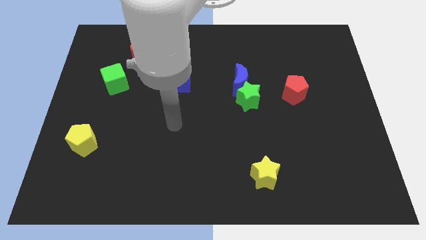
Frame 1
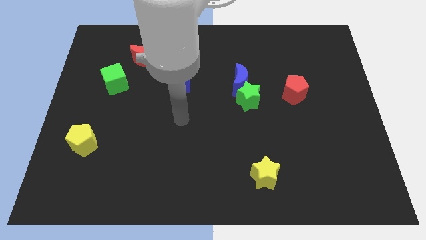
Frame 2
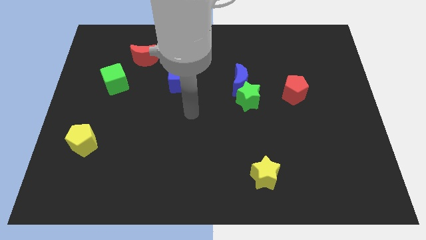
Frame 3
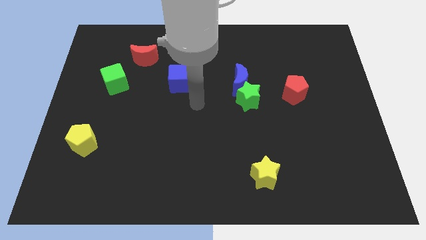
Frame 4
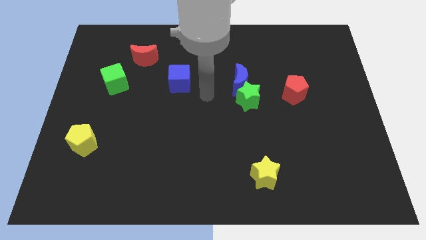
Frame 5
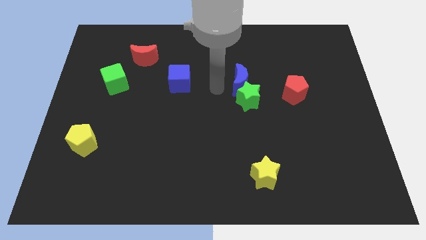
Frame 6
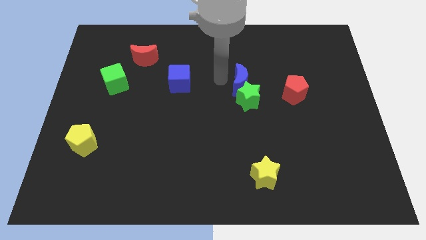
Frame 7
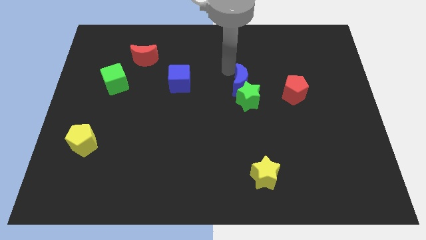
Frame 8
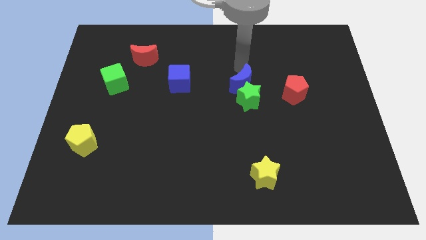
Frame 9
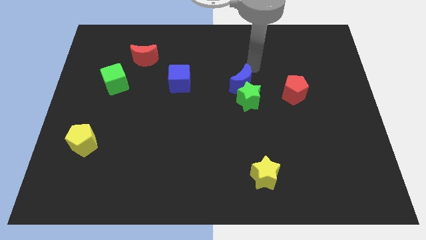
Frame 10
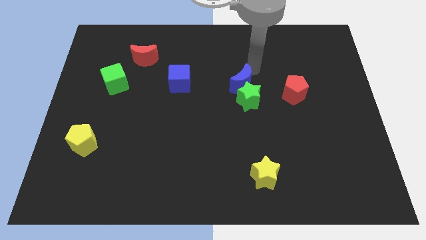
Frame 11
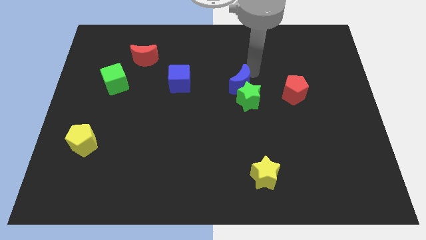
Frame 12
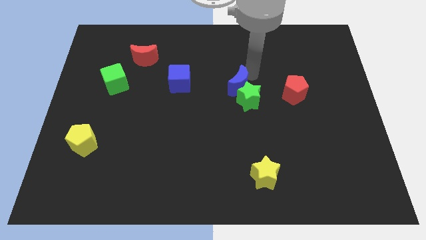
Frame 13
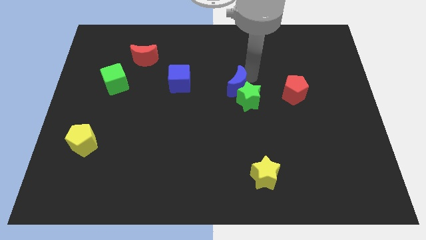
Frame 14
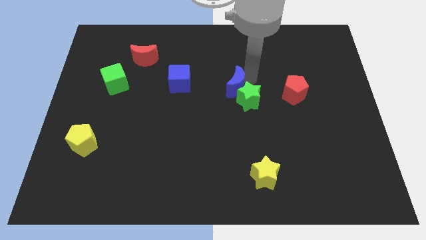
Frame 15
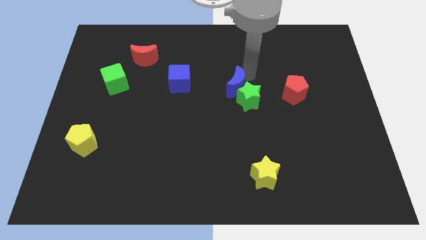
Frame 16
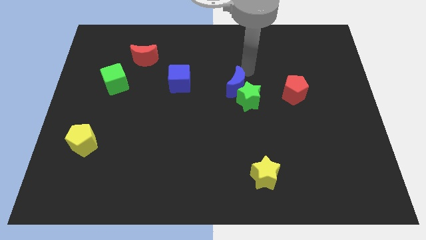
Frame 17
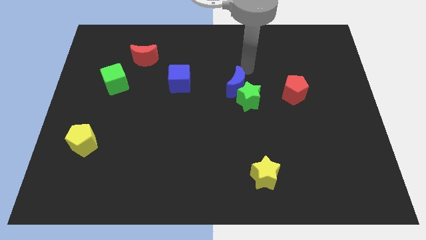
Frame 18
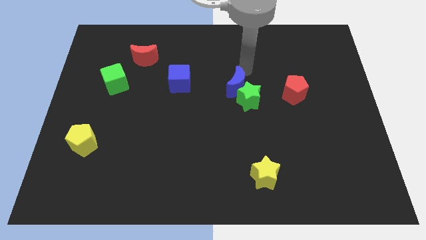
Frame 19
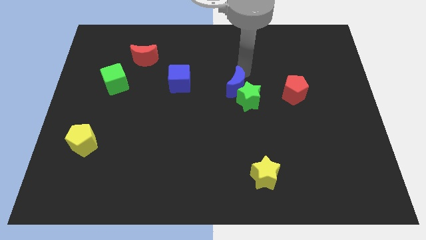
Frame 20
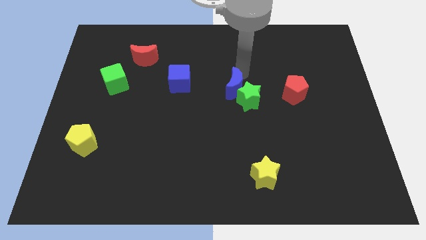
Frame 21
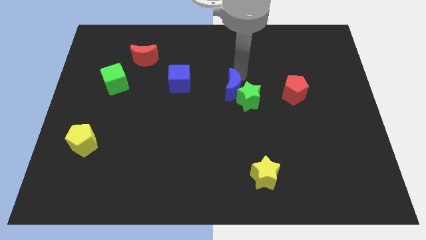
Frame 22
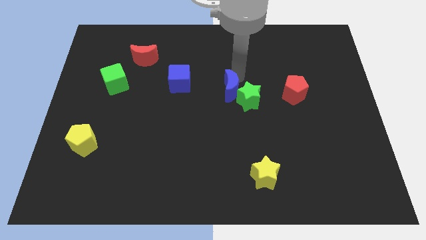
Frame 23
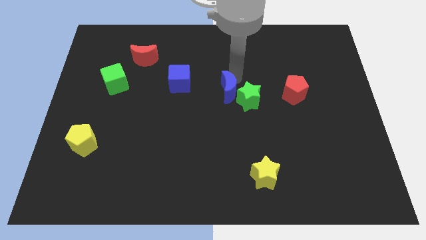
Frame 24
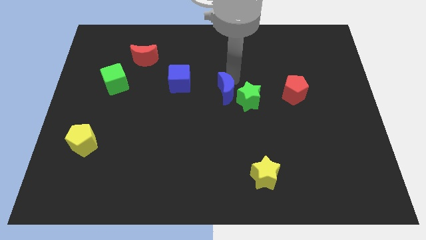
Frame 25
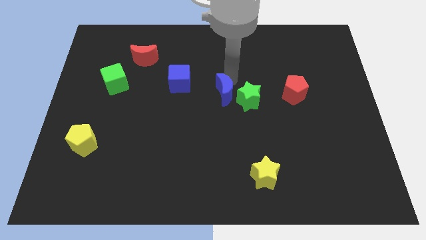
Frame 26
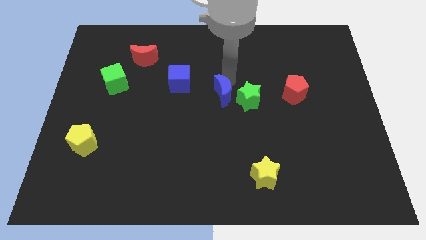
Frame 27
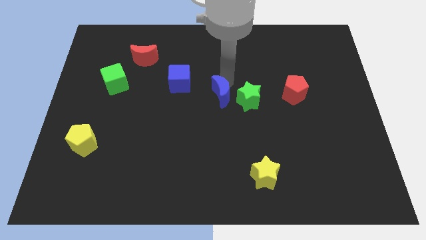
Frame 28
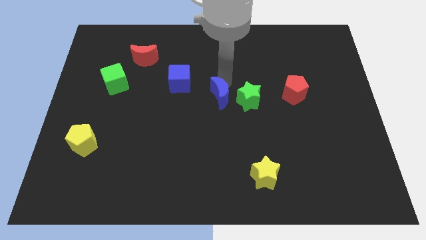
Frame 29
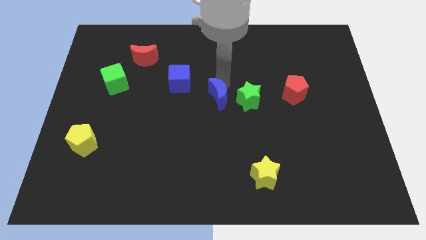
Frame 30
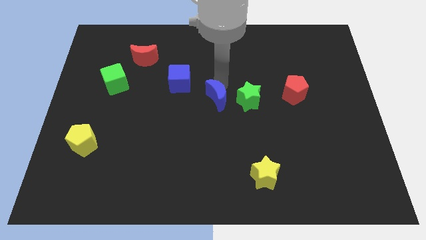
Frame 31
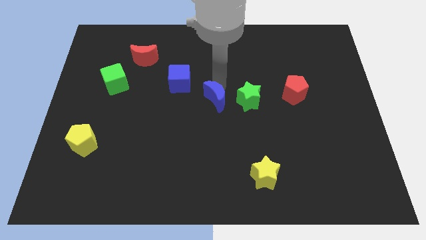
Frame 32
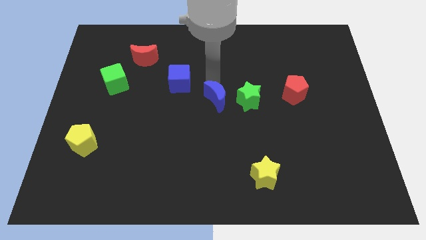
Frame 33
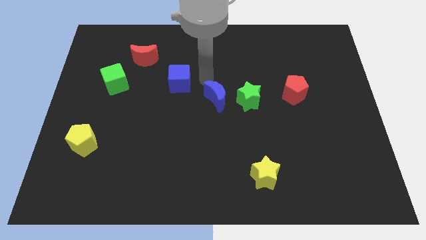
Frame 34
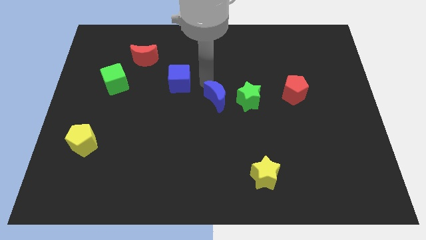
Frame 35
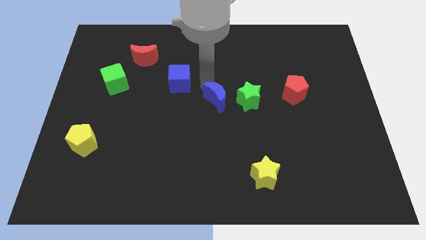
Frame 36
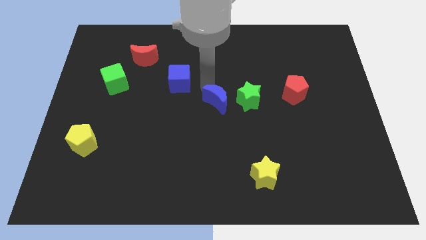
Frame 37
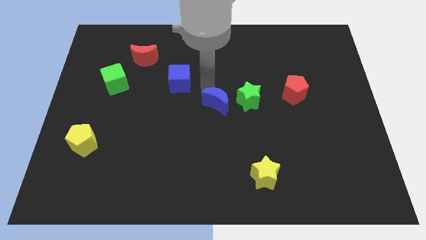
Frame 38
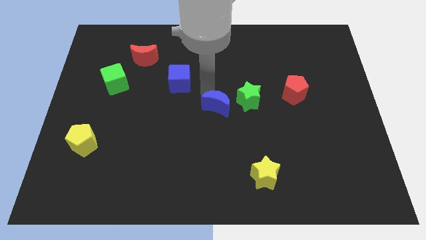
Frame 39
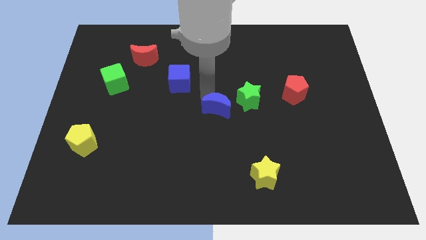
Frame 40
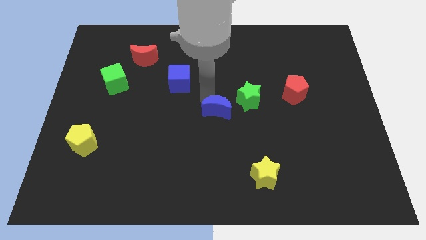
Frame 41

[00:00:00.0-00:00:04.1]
slightly move the blue moon down

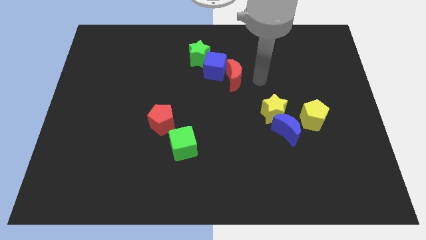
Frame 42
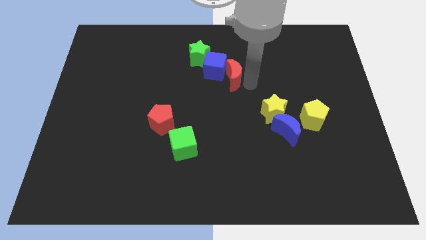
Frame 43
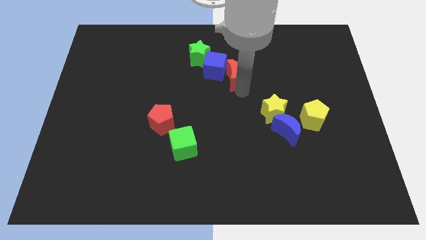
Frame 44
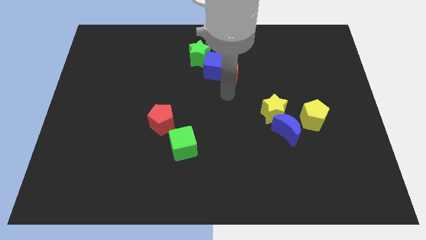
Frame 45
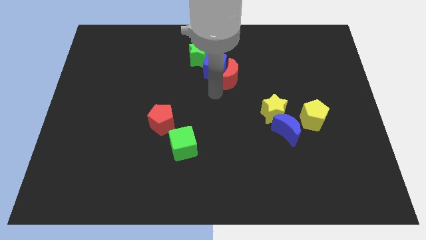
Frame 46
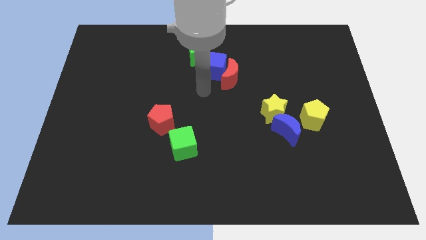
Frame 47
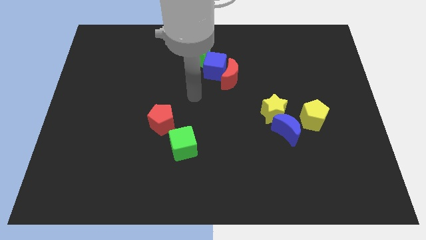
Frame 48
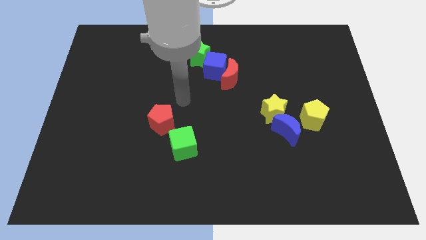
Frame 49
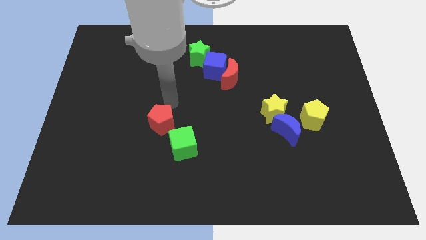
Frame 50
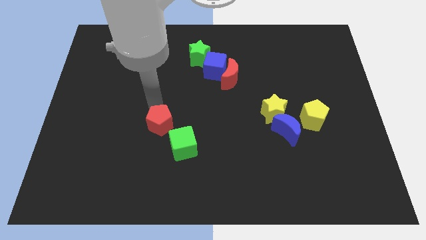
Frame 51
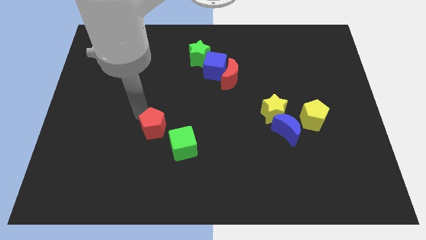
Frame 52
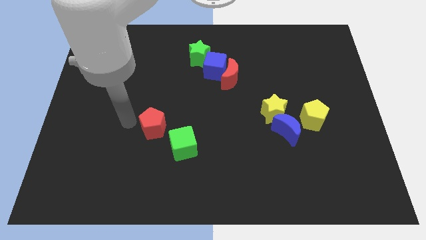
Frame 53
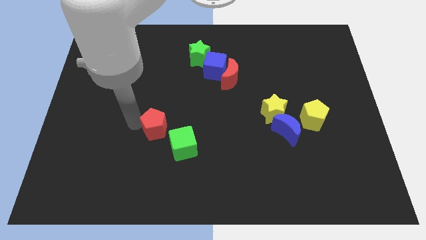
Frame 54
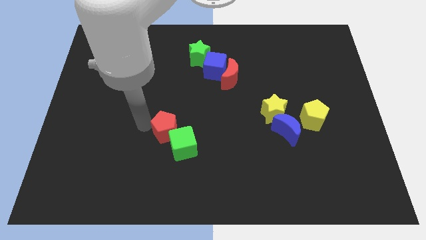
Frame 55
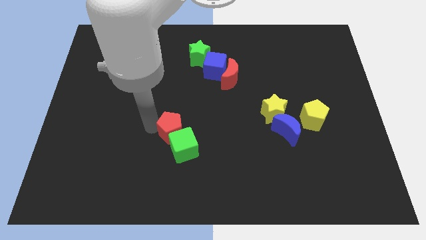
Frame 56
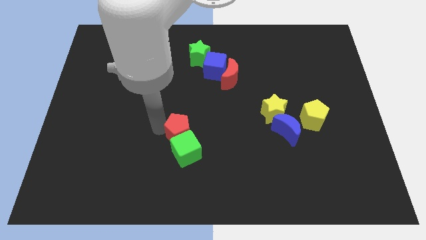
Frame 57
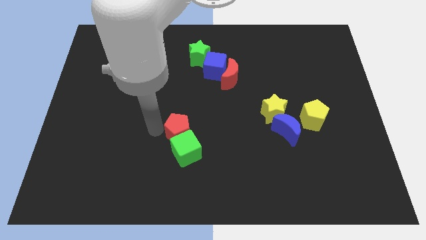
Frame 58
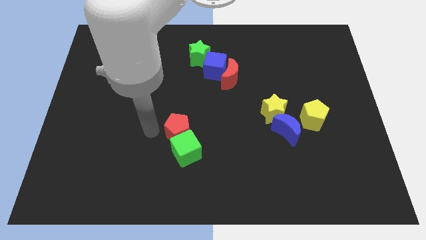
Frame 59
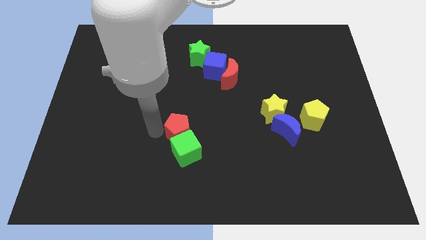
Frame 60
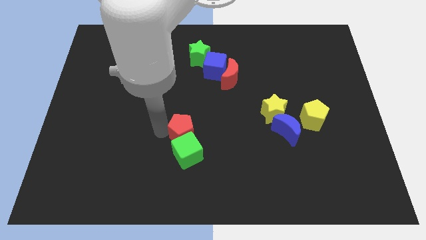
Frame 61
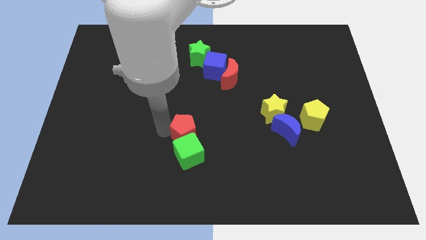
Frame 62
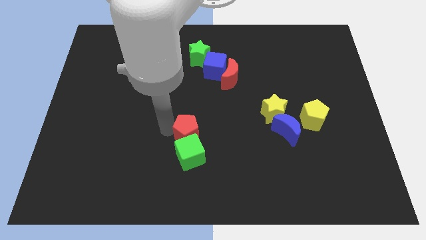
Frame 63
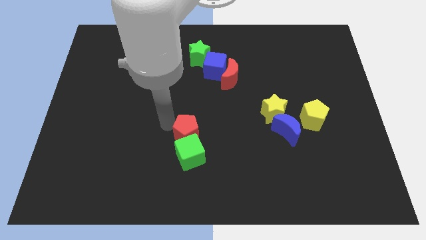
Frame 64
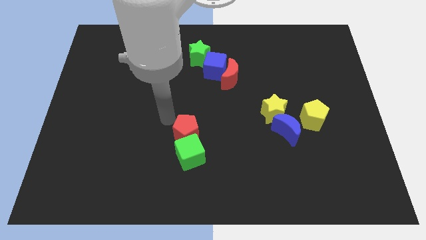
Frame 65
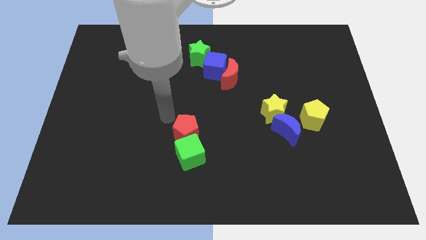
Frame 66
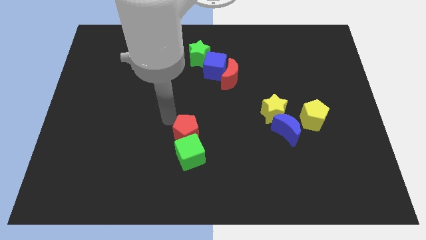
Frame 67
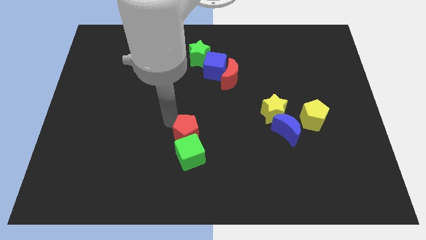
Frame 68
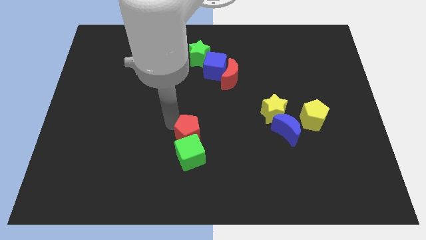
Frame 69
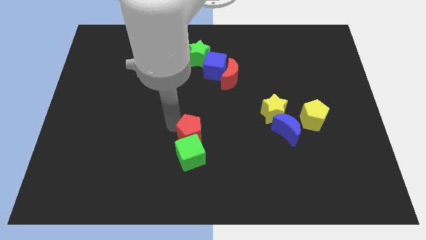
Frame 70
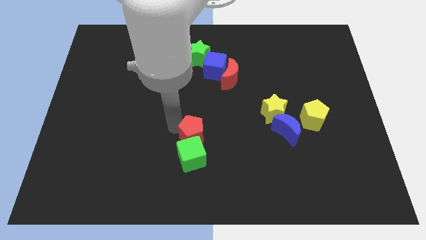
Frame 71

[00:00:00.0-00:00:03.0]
slightly push the red pentagon down and right

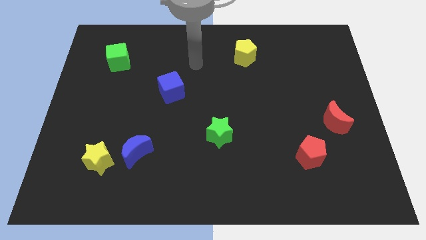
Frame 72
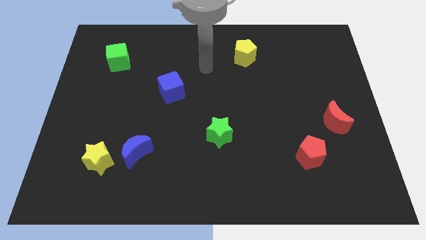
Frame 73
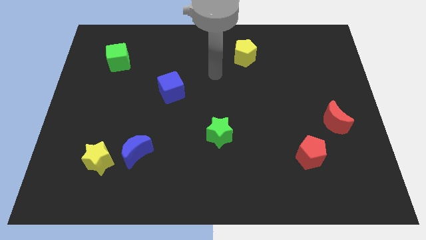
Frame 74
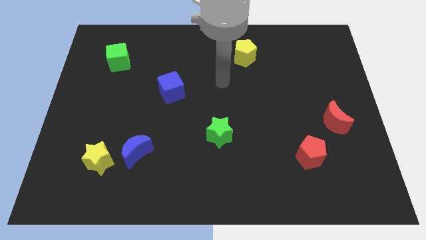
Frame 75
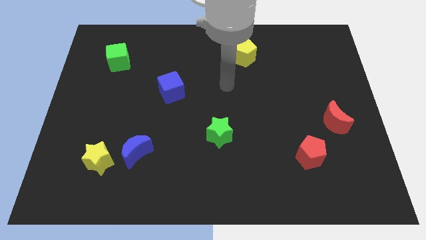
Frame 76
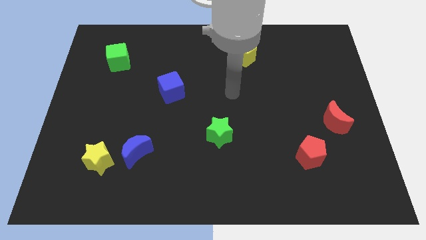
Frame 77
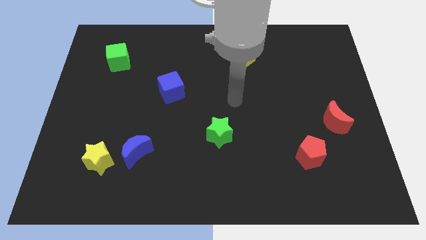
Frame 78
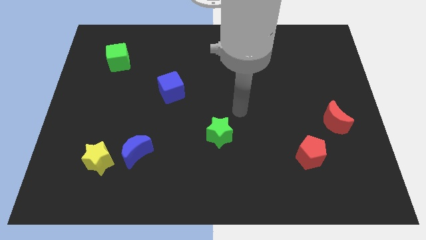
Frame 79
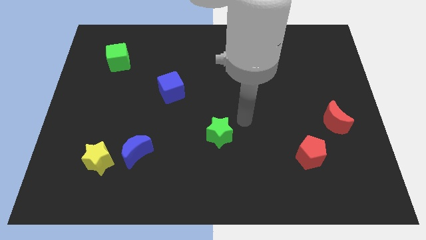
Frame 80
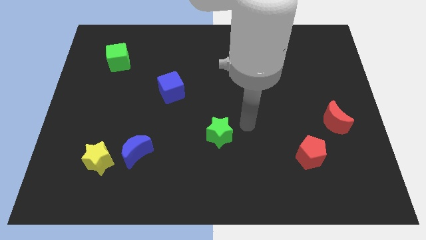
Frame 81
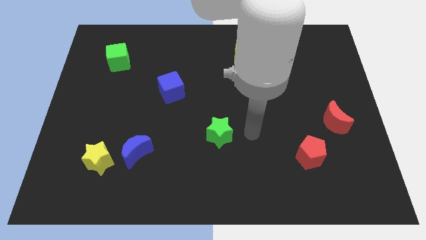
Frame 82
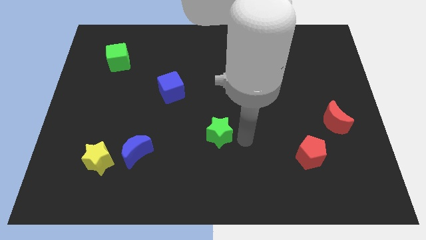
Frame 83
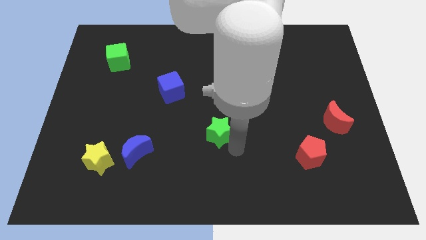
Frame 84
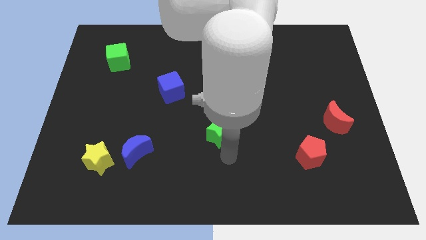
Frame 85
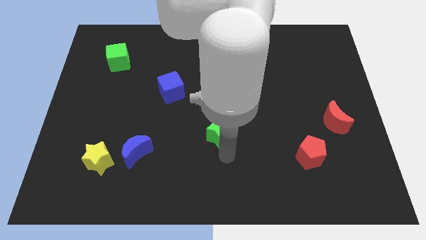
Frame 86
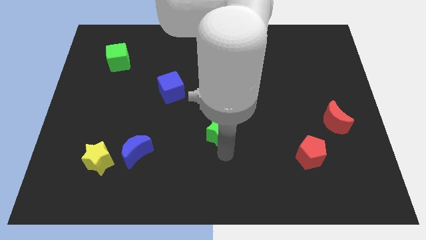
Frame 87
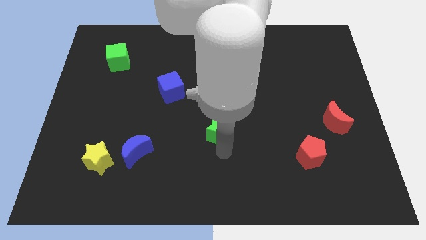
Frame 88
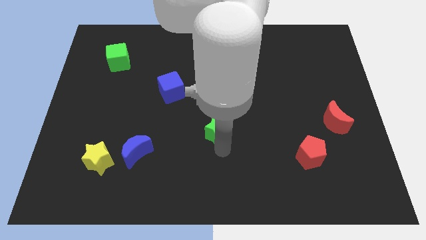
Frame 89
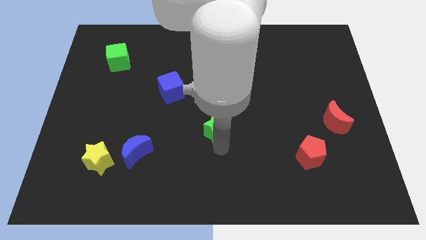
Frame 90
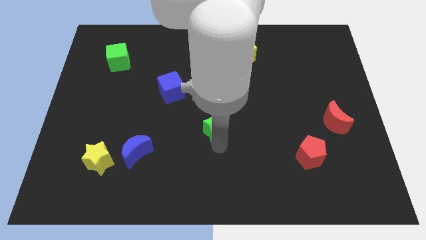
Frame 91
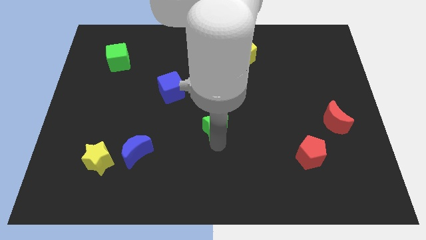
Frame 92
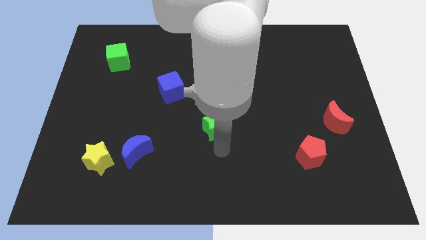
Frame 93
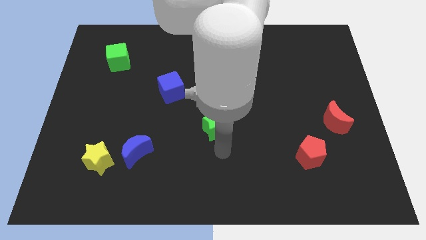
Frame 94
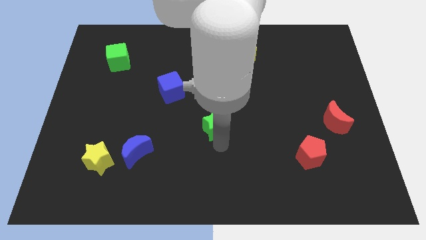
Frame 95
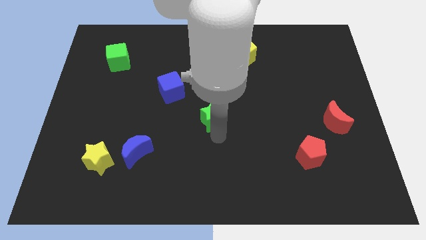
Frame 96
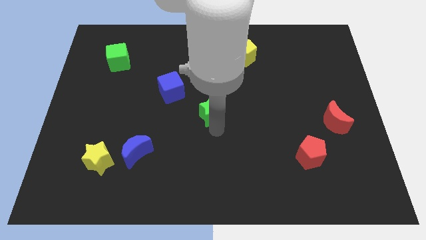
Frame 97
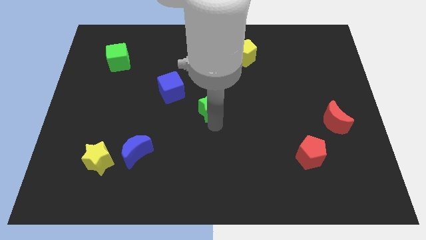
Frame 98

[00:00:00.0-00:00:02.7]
slightly move the green star upwards
